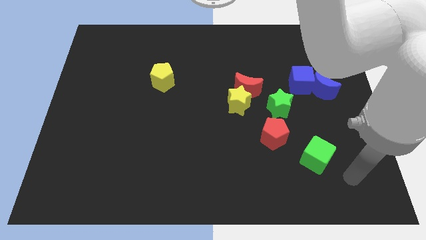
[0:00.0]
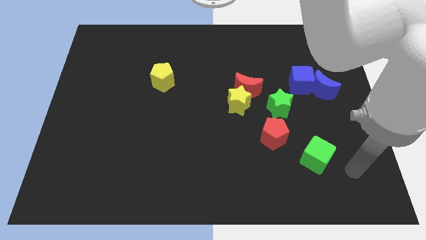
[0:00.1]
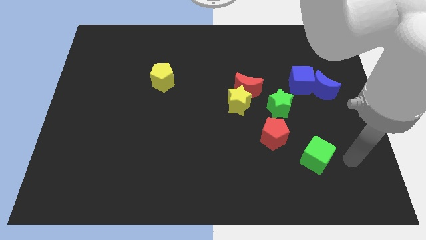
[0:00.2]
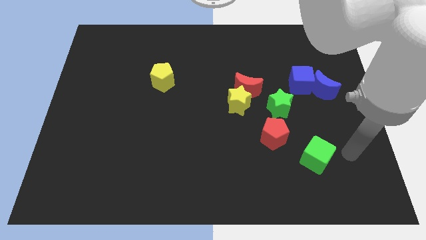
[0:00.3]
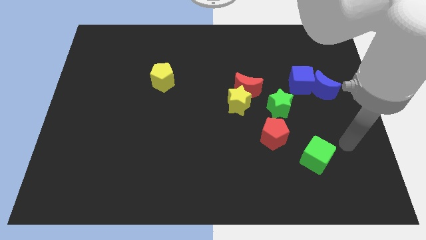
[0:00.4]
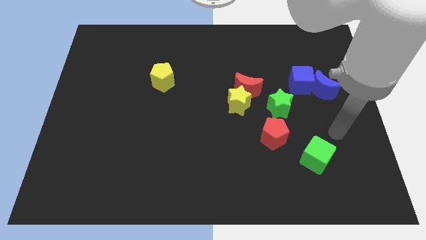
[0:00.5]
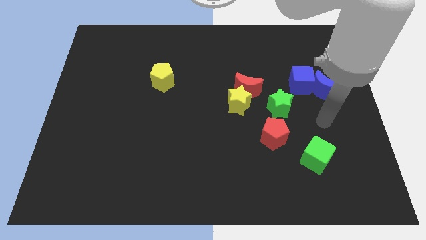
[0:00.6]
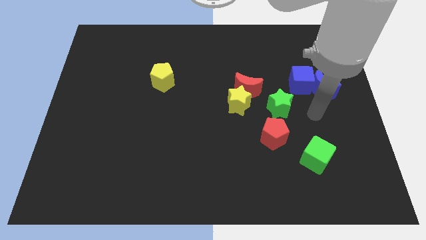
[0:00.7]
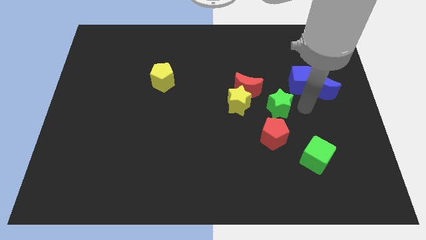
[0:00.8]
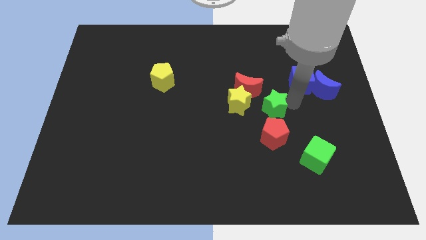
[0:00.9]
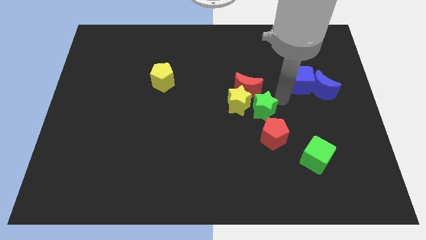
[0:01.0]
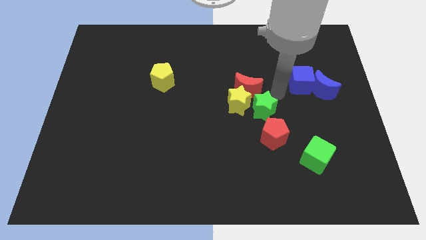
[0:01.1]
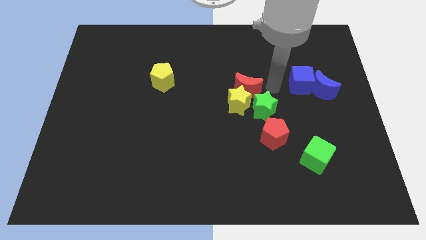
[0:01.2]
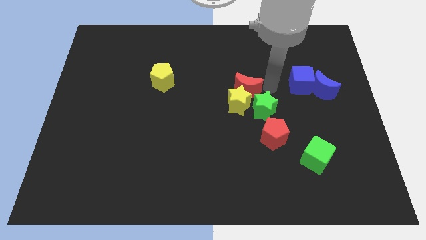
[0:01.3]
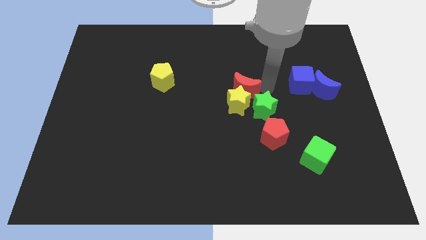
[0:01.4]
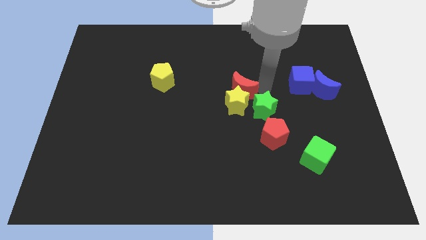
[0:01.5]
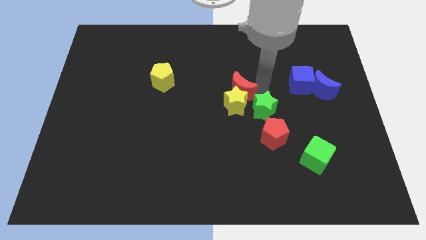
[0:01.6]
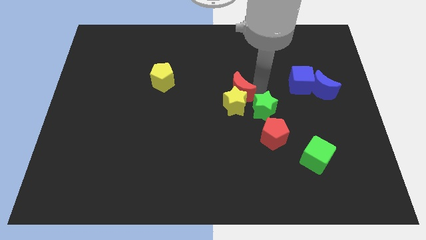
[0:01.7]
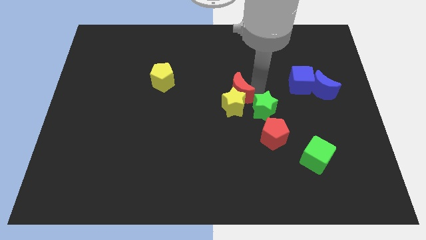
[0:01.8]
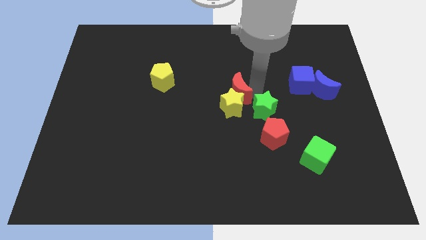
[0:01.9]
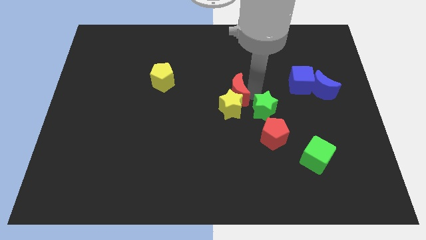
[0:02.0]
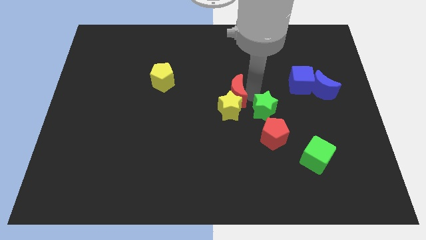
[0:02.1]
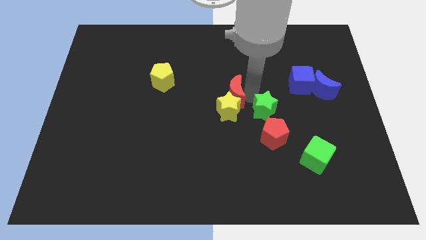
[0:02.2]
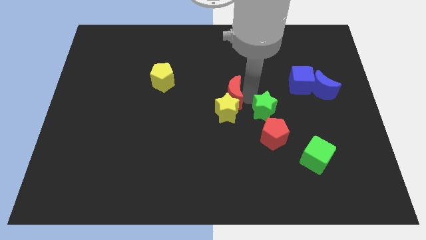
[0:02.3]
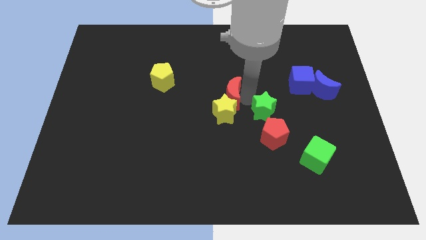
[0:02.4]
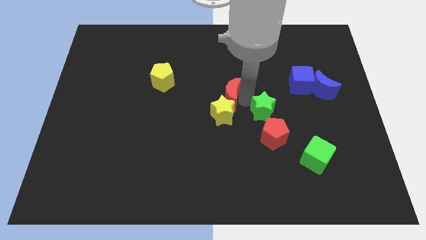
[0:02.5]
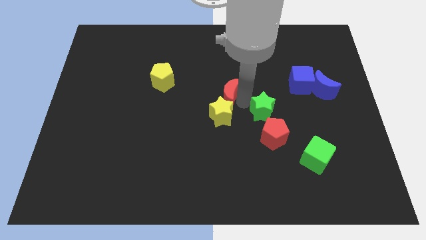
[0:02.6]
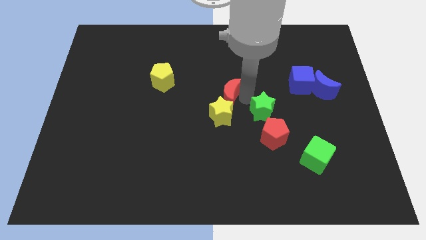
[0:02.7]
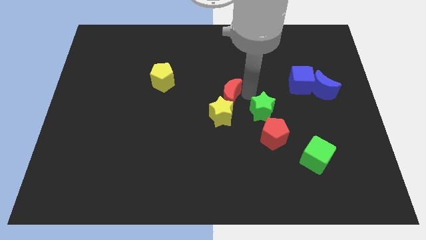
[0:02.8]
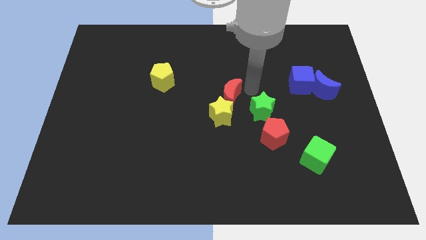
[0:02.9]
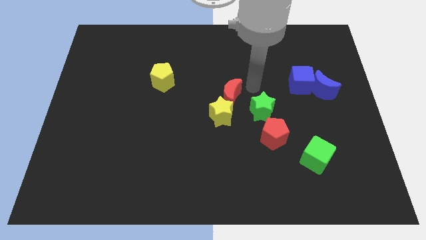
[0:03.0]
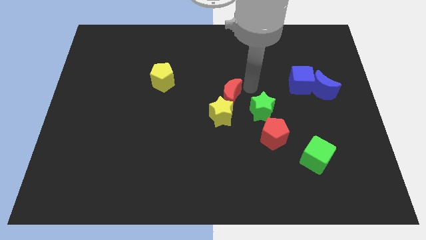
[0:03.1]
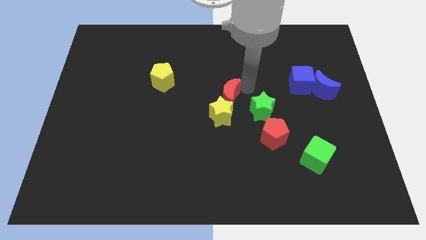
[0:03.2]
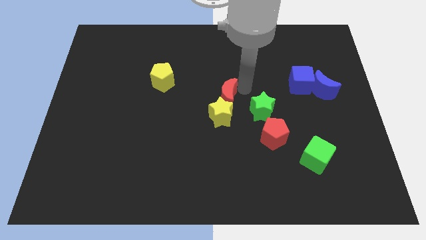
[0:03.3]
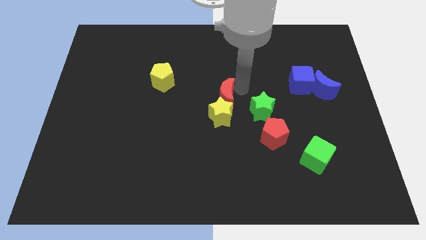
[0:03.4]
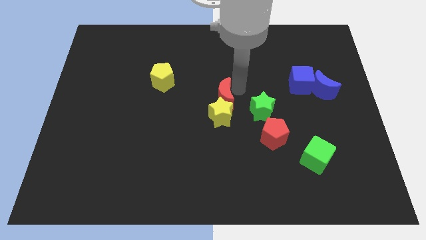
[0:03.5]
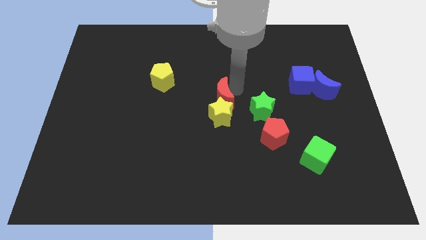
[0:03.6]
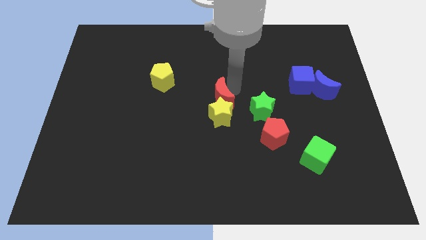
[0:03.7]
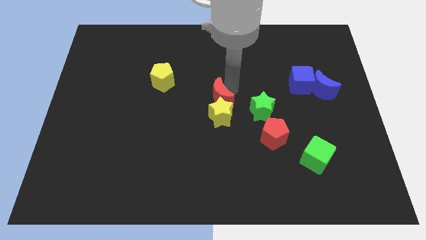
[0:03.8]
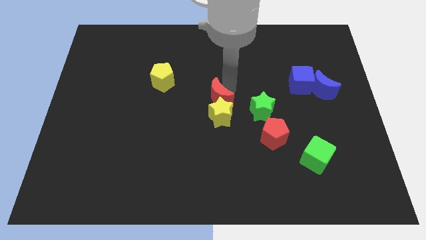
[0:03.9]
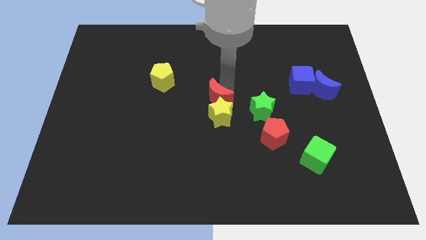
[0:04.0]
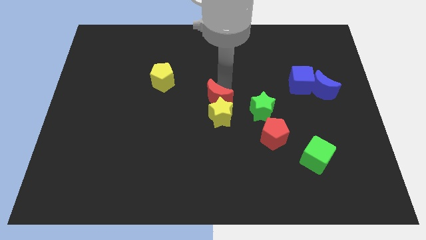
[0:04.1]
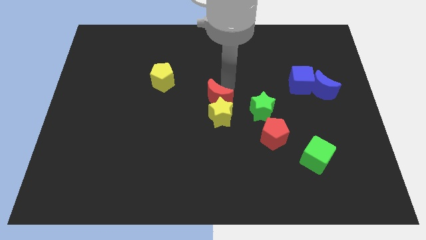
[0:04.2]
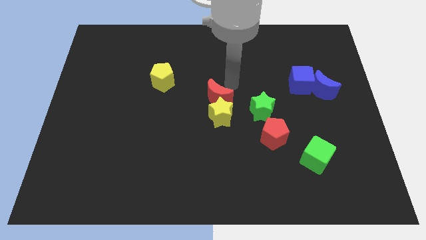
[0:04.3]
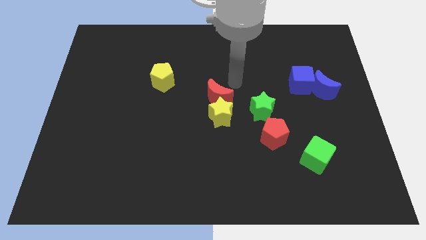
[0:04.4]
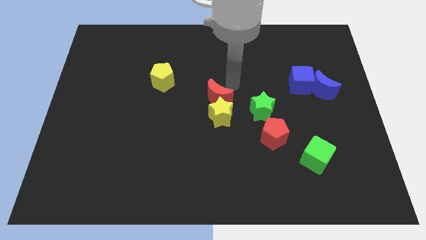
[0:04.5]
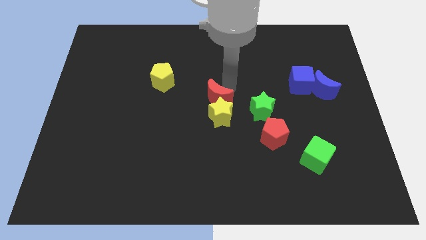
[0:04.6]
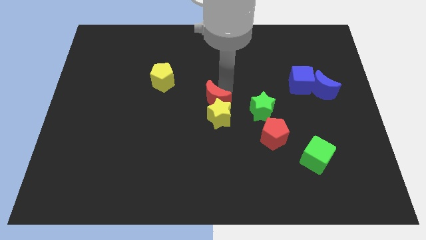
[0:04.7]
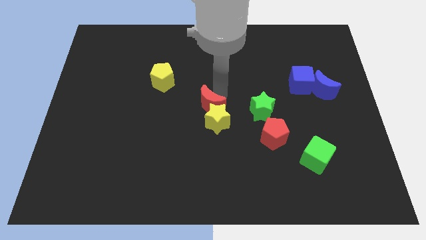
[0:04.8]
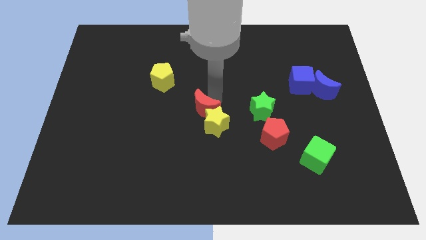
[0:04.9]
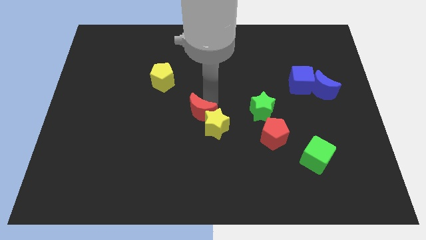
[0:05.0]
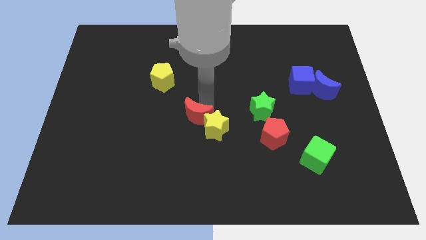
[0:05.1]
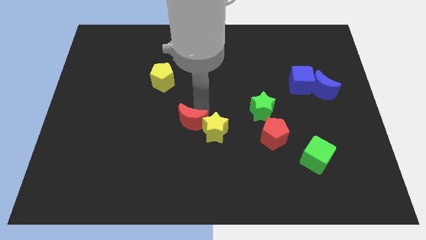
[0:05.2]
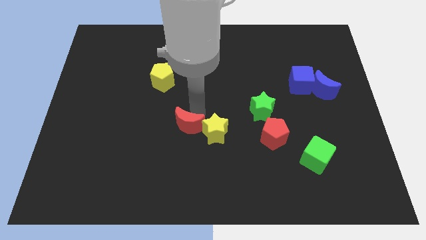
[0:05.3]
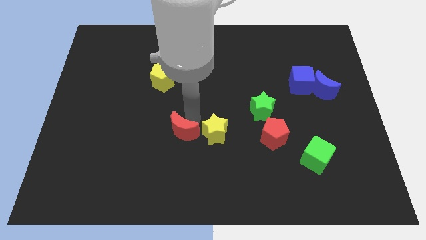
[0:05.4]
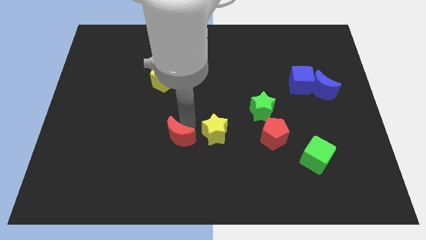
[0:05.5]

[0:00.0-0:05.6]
slide the red moon down and to the left

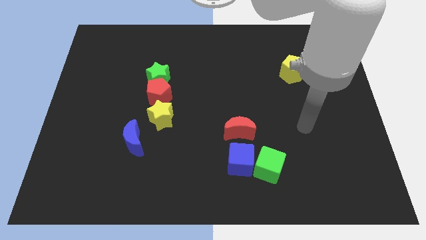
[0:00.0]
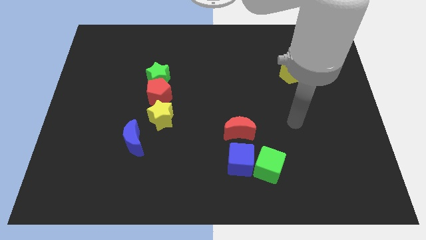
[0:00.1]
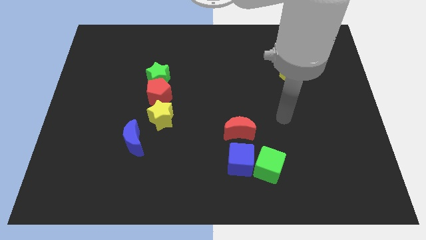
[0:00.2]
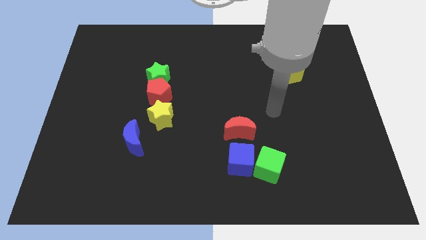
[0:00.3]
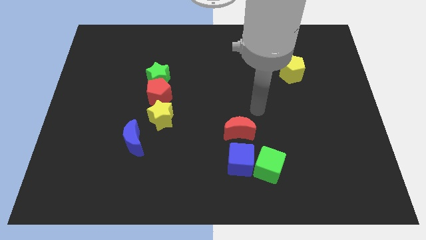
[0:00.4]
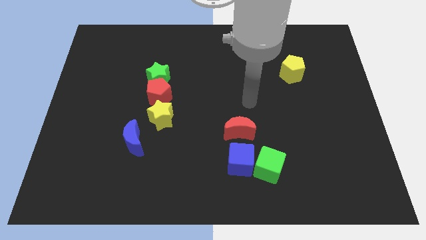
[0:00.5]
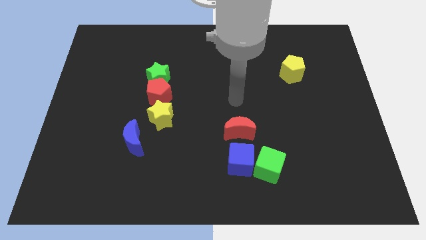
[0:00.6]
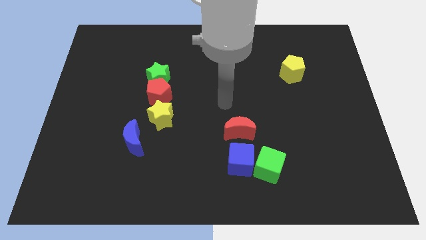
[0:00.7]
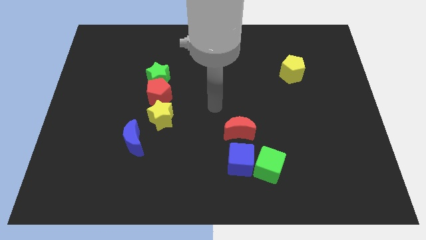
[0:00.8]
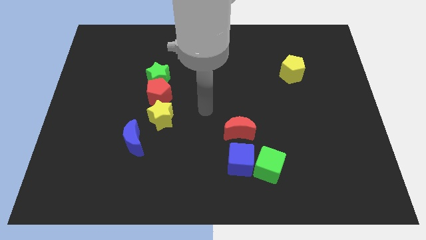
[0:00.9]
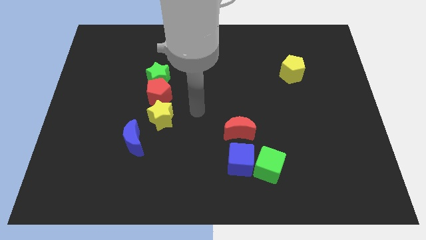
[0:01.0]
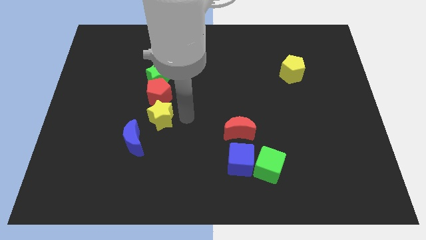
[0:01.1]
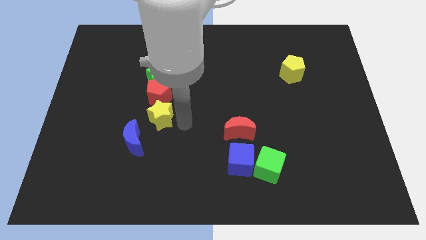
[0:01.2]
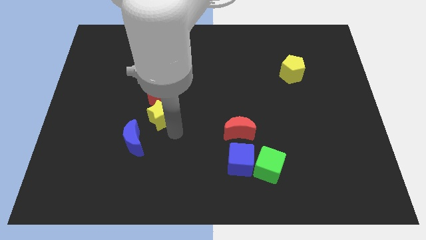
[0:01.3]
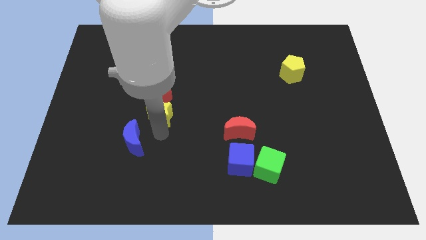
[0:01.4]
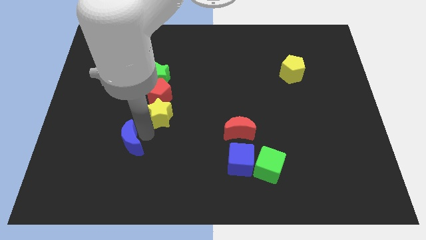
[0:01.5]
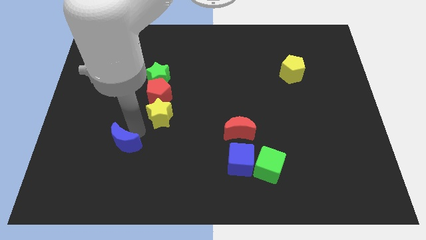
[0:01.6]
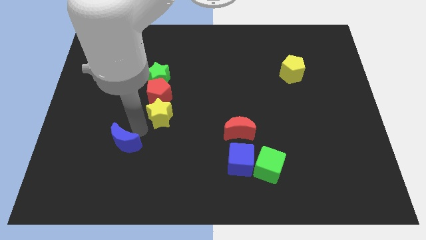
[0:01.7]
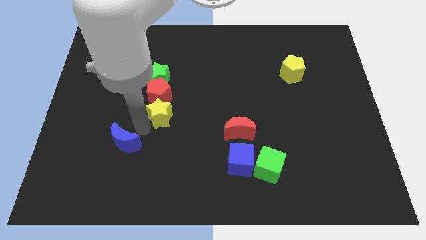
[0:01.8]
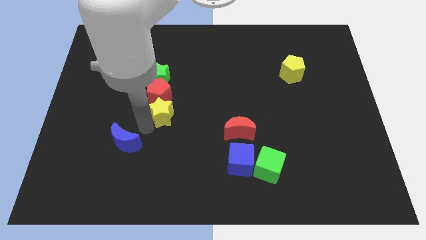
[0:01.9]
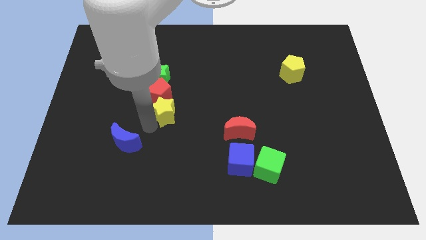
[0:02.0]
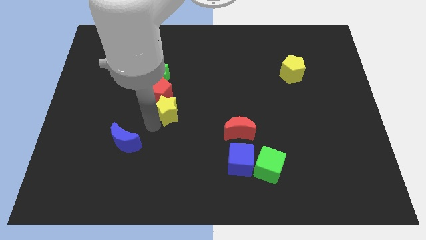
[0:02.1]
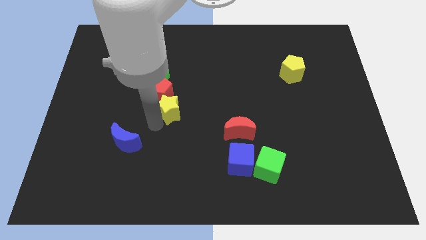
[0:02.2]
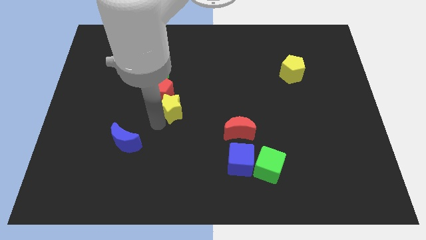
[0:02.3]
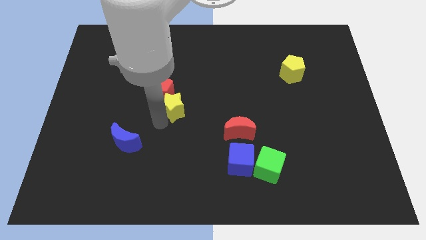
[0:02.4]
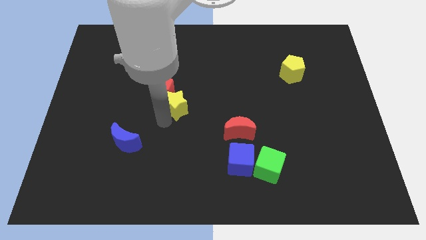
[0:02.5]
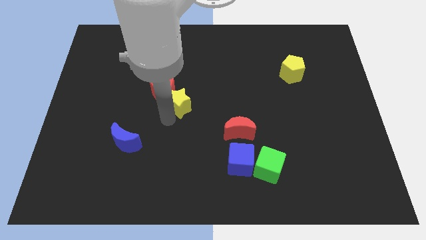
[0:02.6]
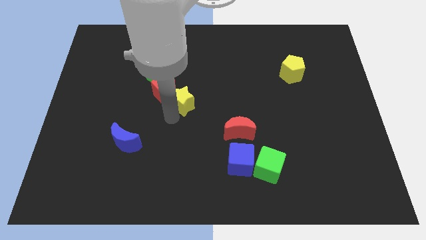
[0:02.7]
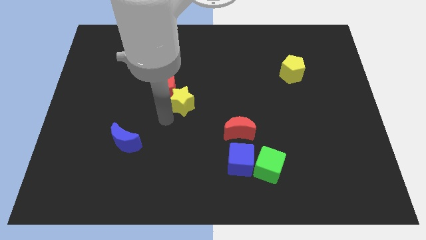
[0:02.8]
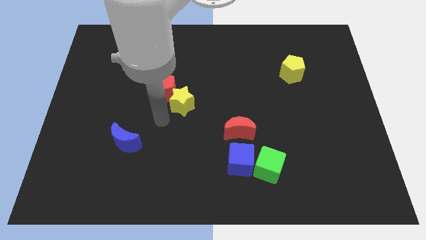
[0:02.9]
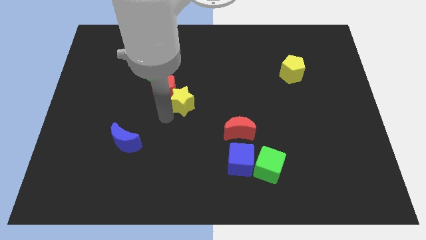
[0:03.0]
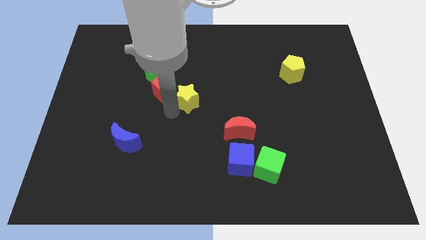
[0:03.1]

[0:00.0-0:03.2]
slide the yellow star a little up and to the right diagonally
